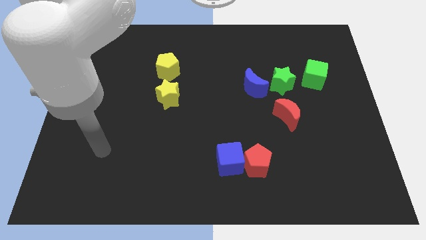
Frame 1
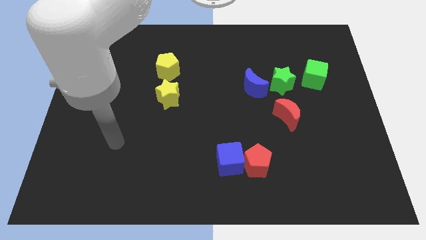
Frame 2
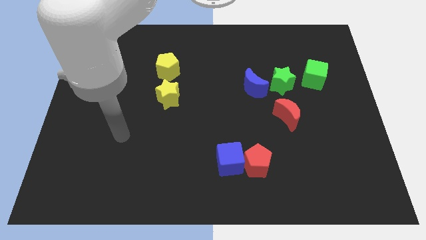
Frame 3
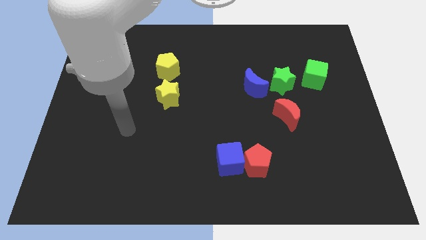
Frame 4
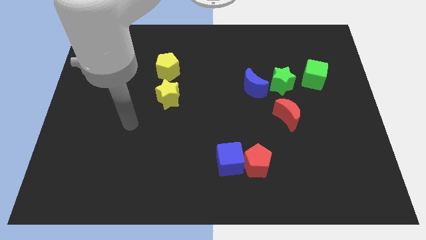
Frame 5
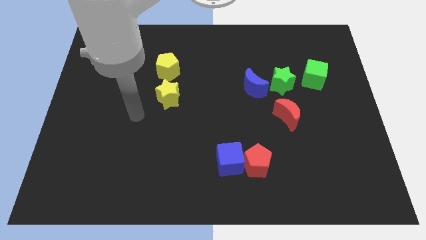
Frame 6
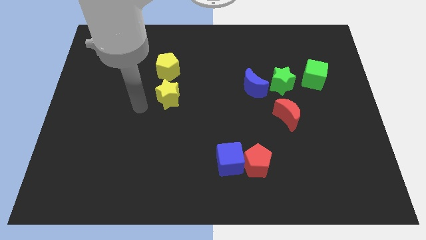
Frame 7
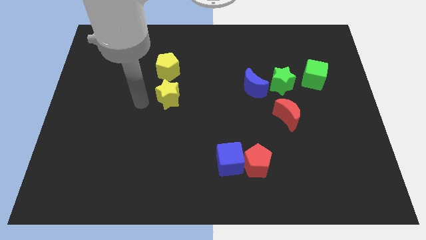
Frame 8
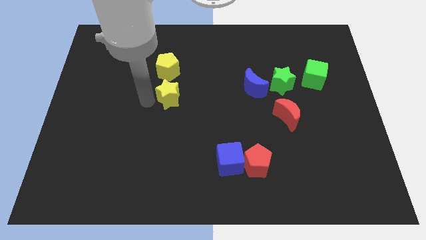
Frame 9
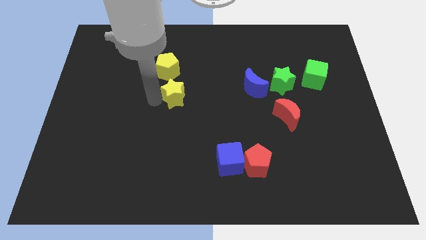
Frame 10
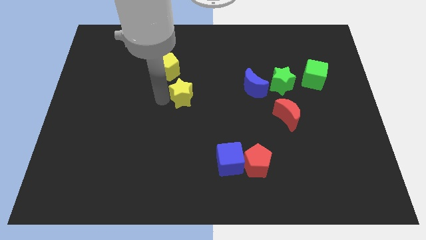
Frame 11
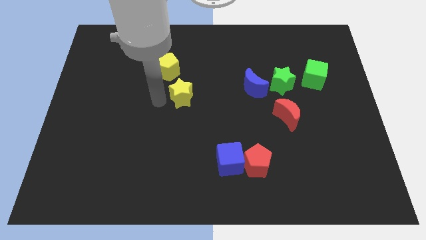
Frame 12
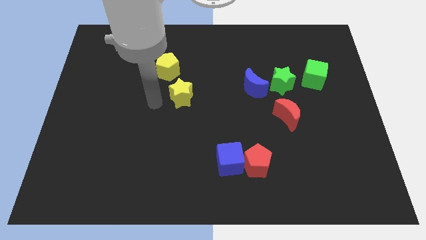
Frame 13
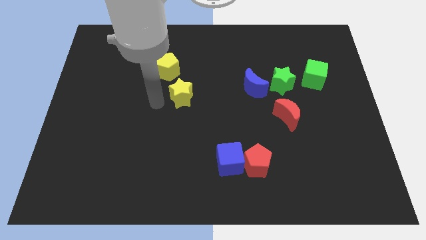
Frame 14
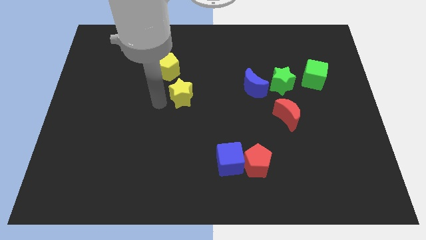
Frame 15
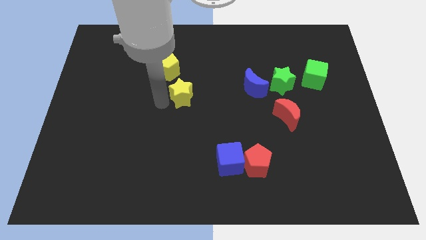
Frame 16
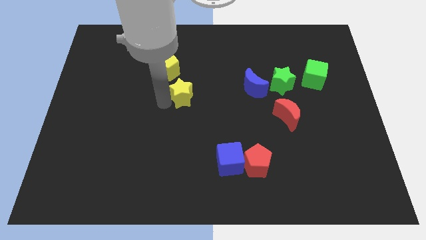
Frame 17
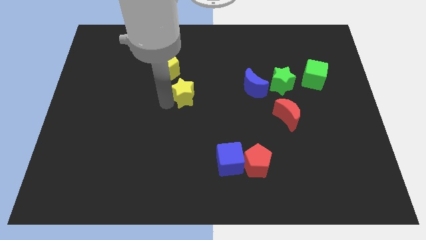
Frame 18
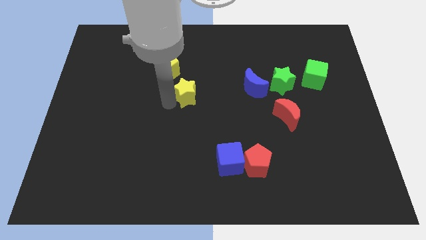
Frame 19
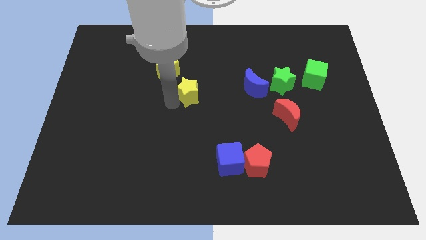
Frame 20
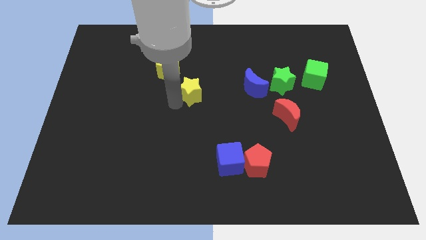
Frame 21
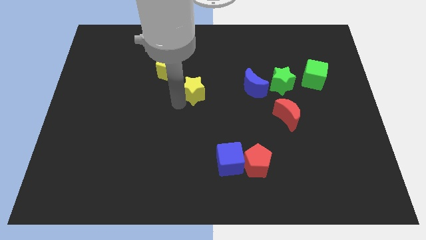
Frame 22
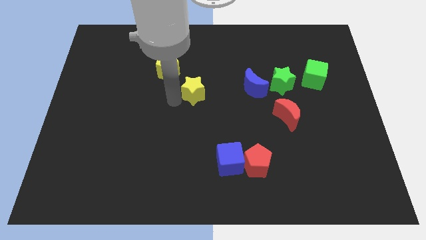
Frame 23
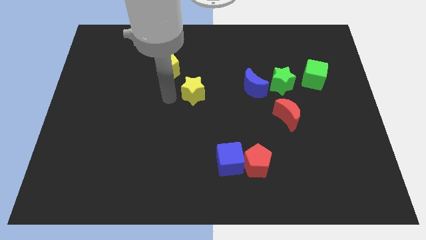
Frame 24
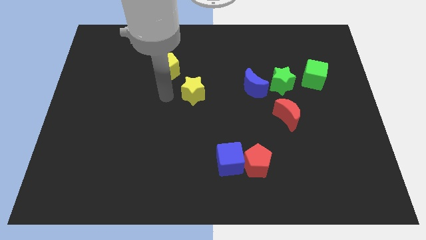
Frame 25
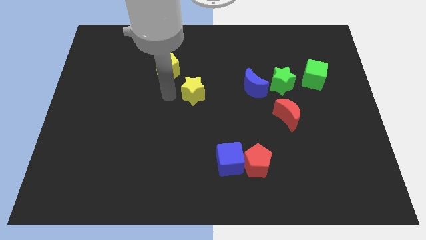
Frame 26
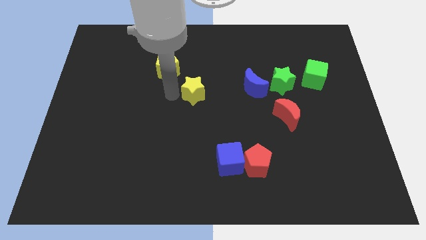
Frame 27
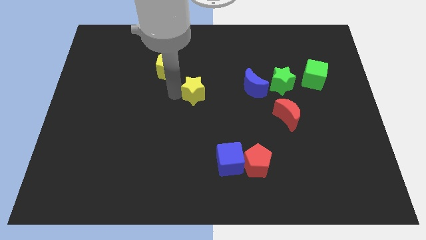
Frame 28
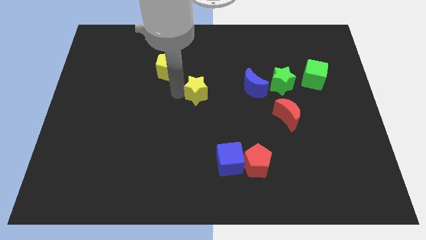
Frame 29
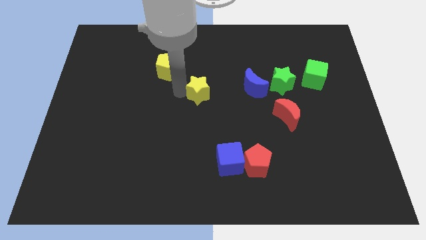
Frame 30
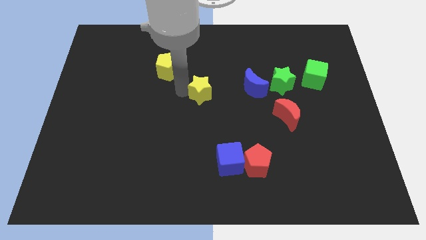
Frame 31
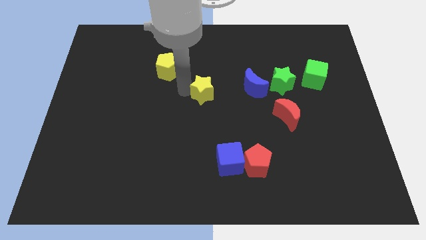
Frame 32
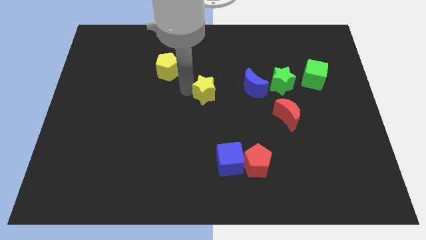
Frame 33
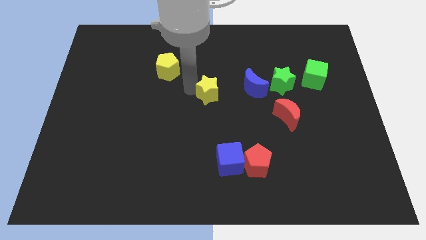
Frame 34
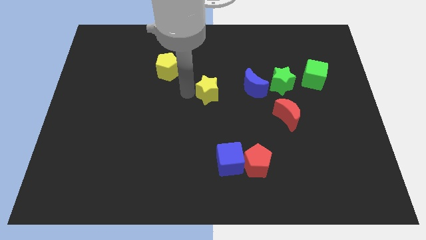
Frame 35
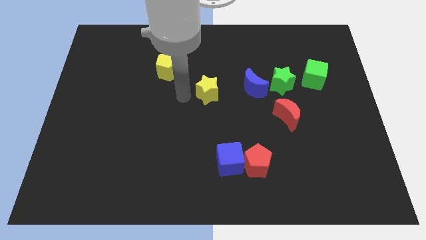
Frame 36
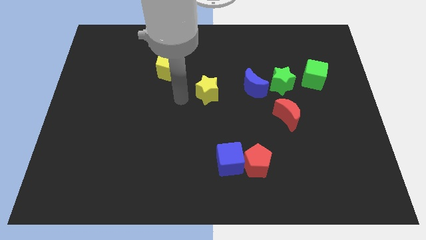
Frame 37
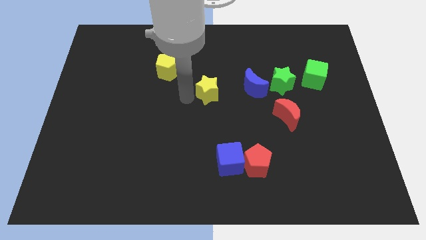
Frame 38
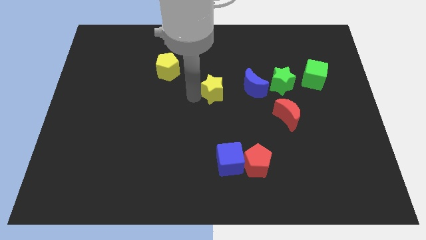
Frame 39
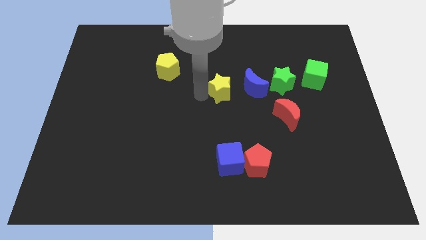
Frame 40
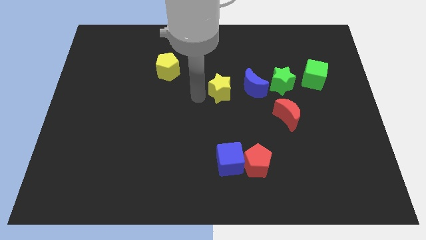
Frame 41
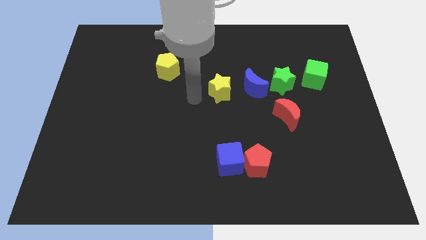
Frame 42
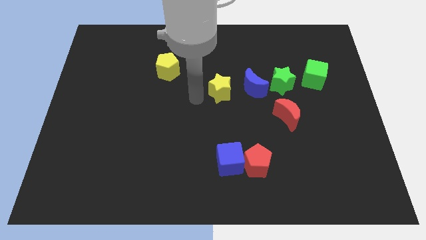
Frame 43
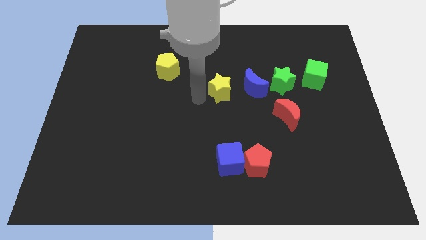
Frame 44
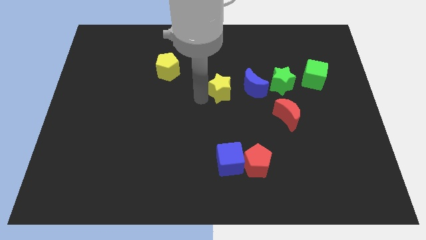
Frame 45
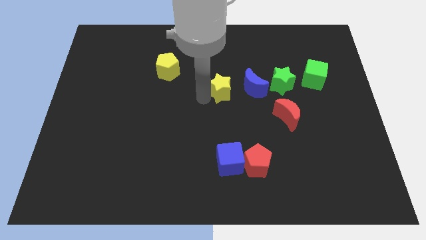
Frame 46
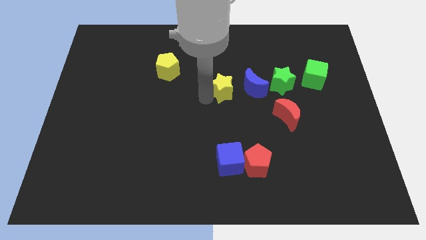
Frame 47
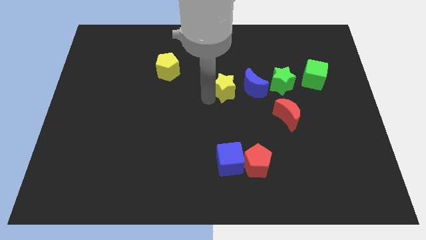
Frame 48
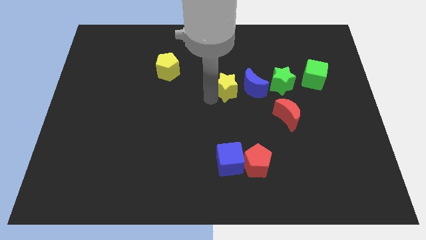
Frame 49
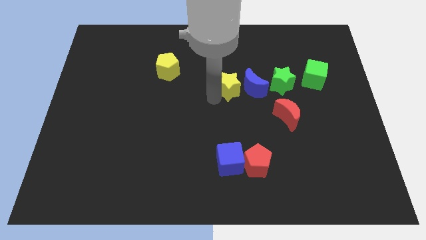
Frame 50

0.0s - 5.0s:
slide the yellow star next to the blue moon

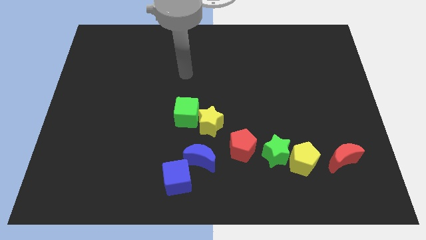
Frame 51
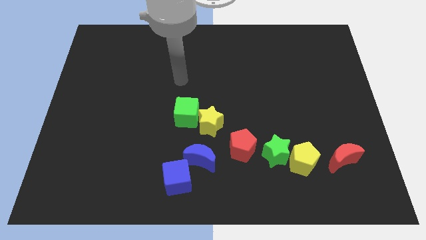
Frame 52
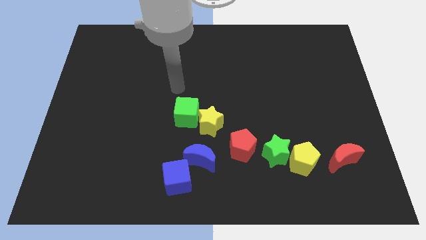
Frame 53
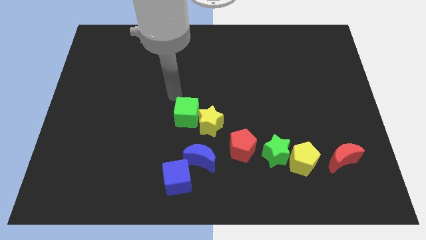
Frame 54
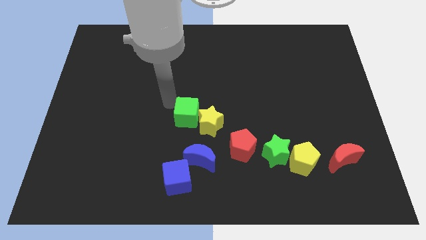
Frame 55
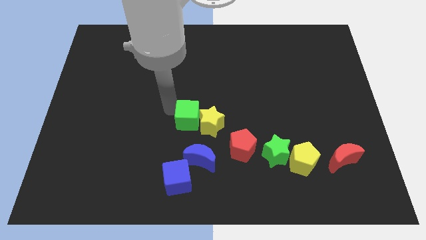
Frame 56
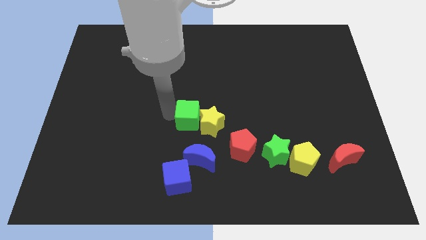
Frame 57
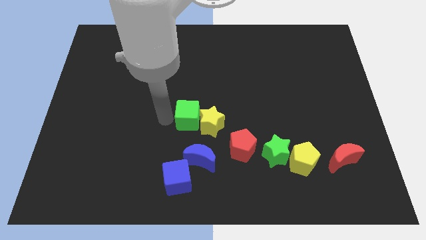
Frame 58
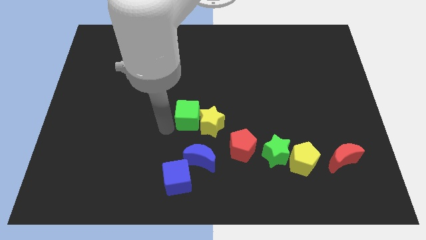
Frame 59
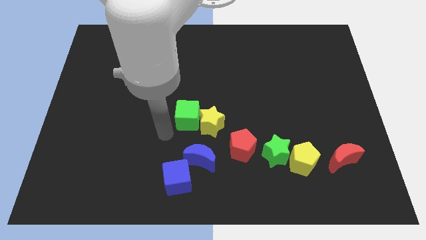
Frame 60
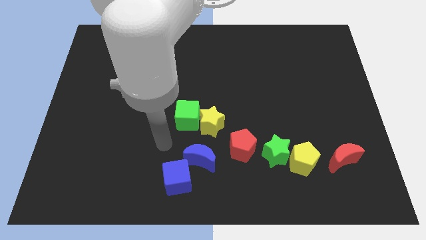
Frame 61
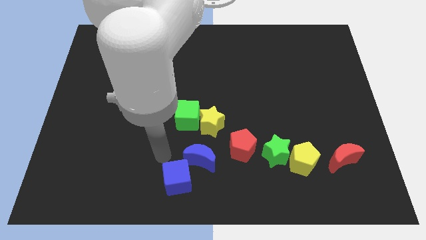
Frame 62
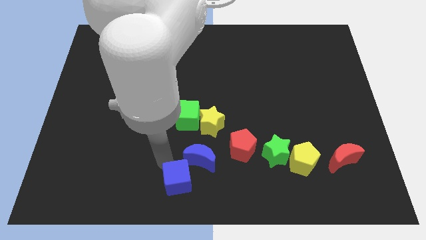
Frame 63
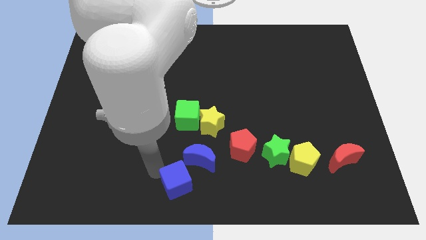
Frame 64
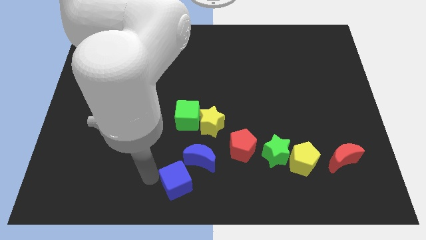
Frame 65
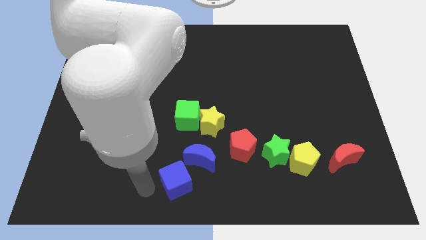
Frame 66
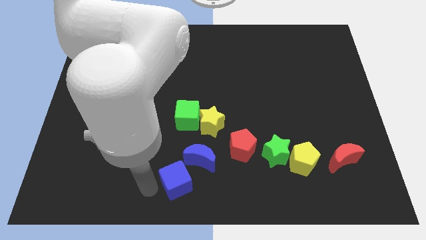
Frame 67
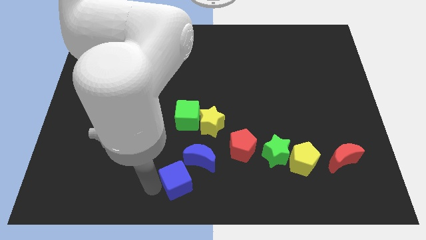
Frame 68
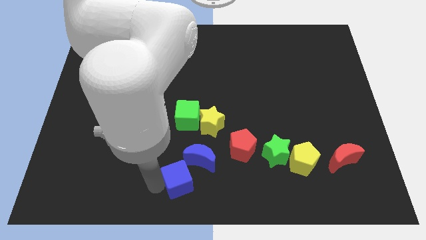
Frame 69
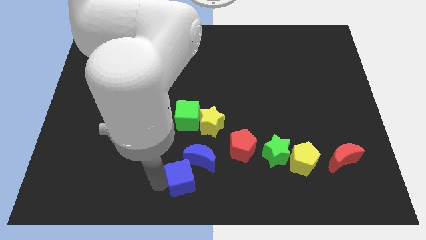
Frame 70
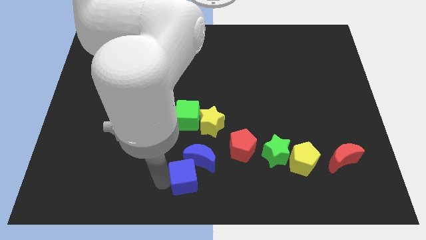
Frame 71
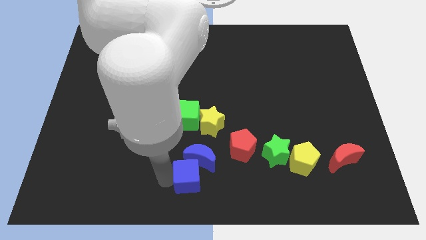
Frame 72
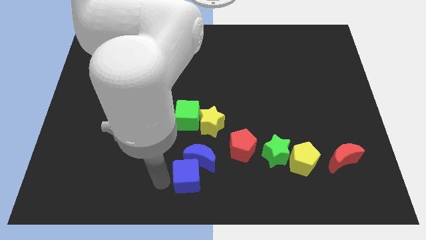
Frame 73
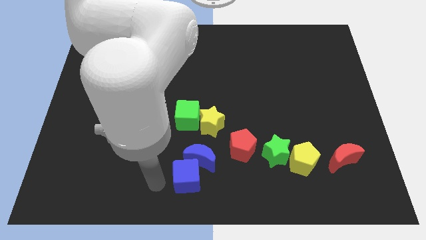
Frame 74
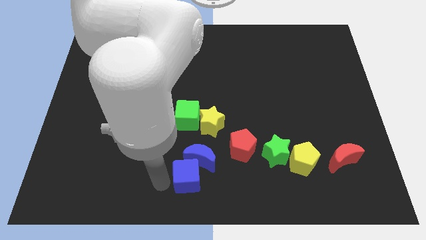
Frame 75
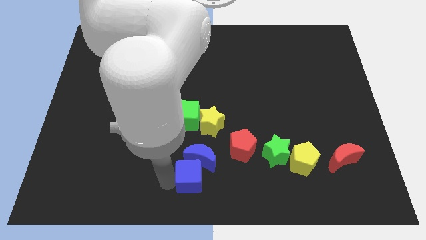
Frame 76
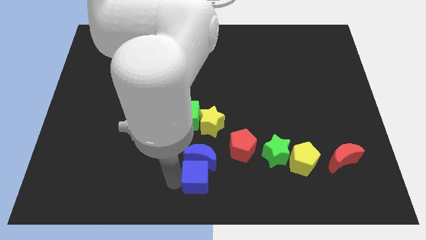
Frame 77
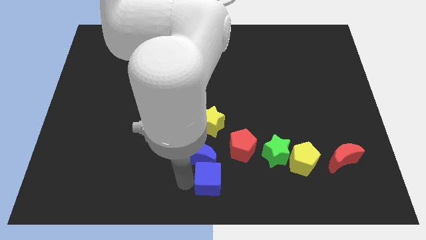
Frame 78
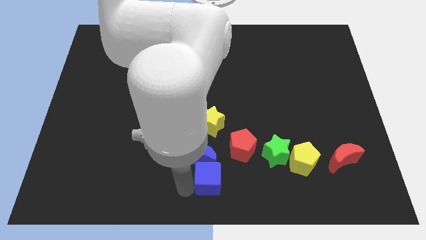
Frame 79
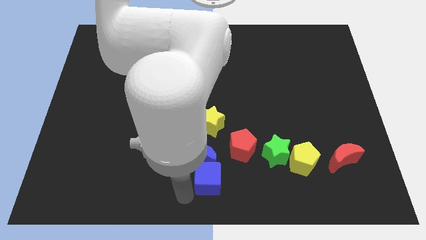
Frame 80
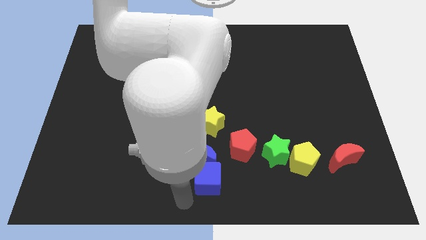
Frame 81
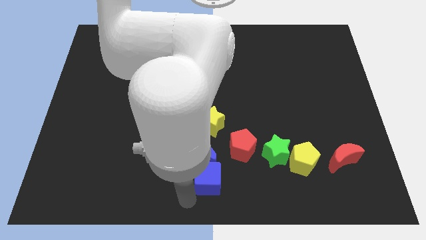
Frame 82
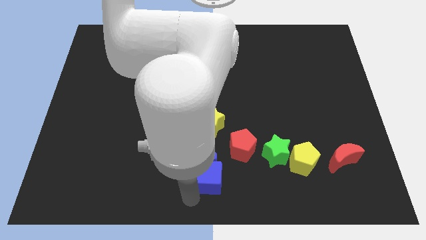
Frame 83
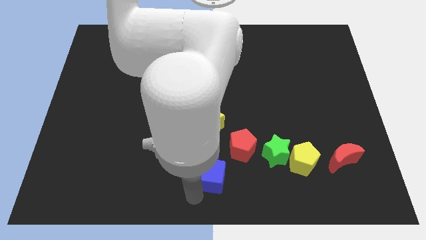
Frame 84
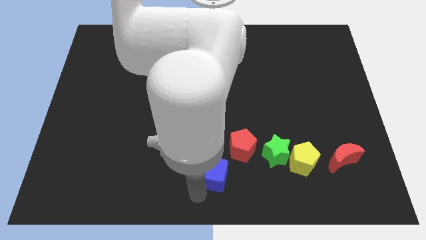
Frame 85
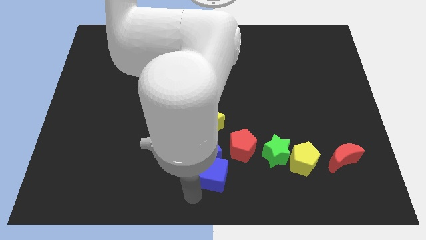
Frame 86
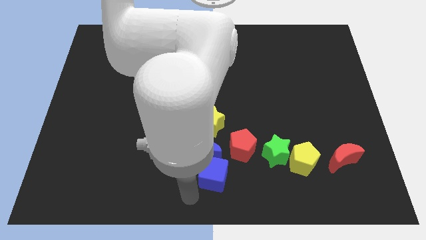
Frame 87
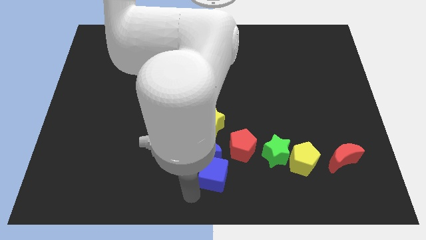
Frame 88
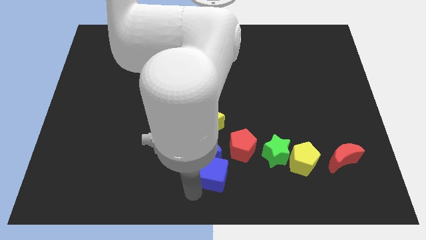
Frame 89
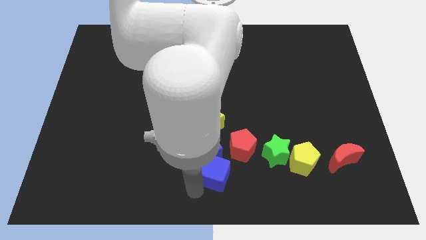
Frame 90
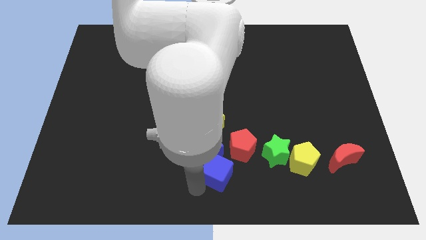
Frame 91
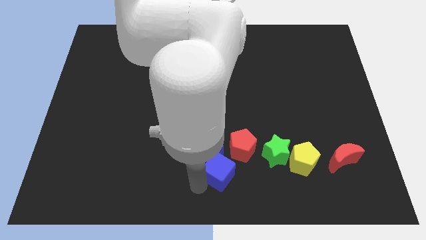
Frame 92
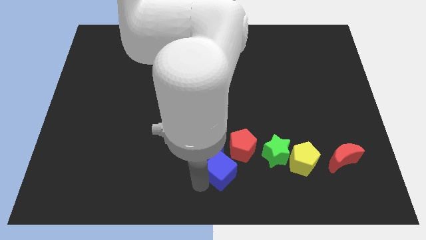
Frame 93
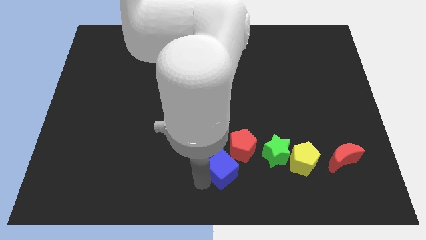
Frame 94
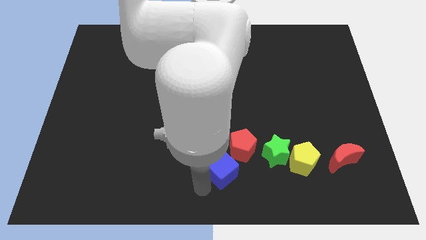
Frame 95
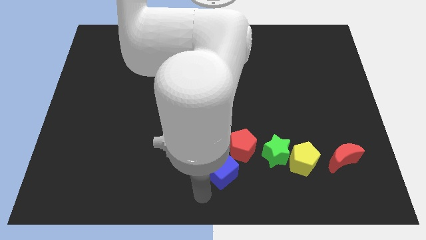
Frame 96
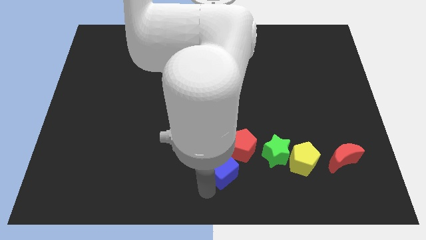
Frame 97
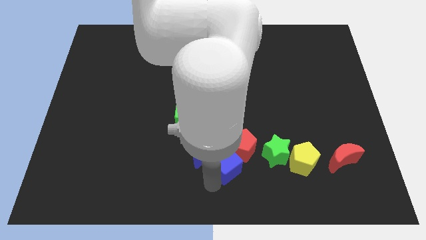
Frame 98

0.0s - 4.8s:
put the blue cube towards the red pentagon
